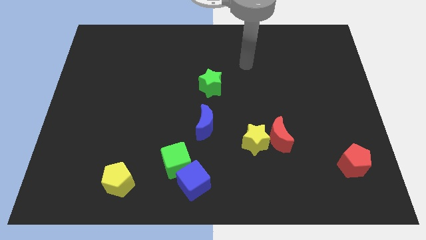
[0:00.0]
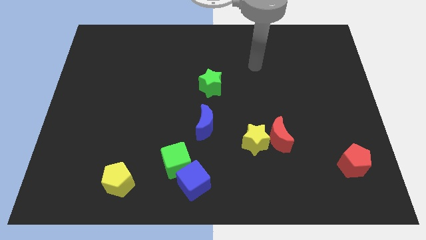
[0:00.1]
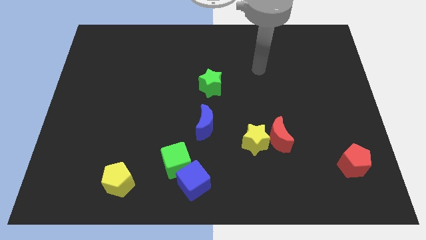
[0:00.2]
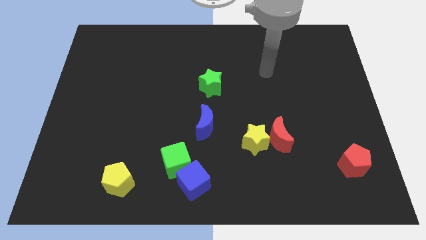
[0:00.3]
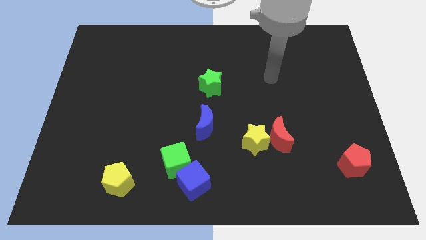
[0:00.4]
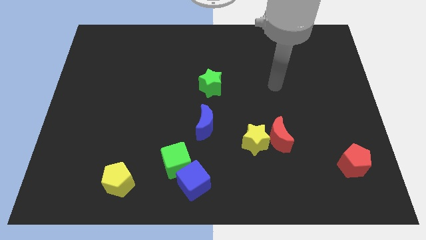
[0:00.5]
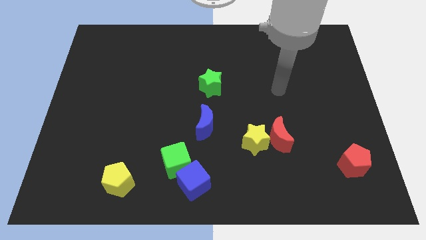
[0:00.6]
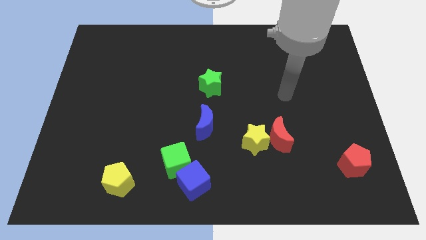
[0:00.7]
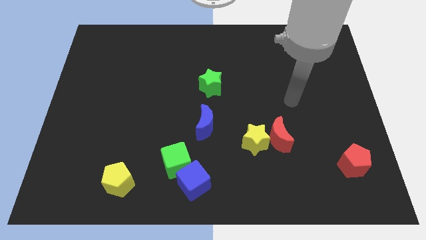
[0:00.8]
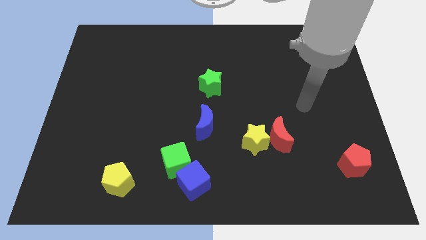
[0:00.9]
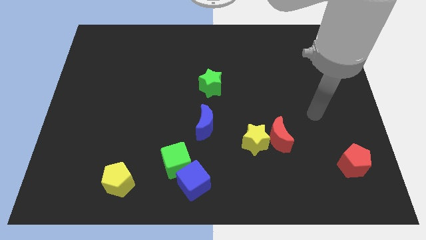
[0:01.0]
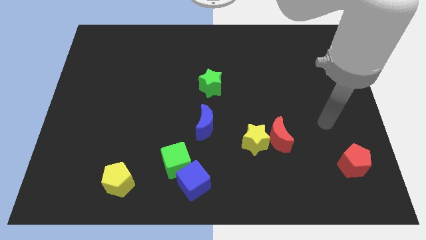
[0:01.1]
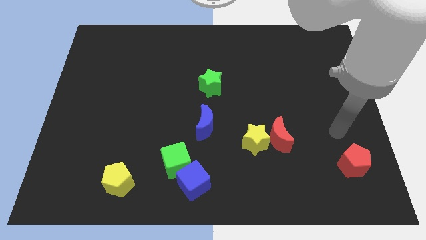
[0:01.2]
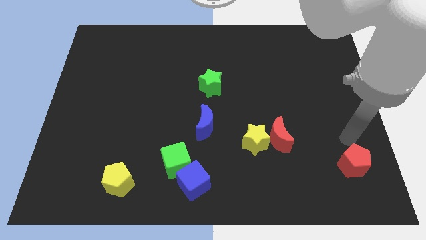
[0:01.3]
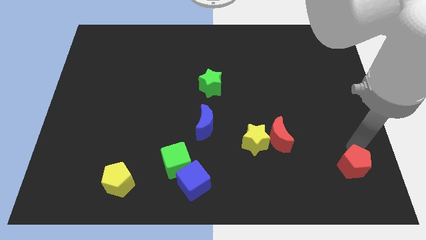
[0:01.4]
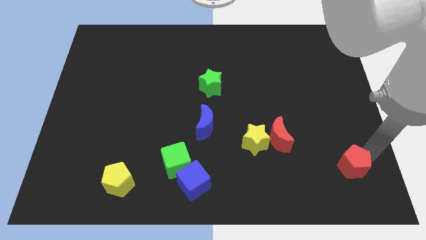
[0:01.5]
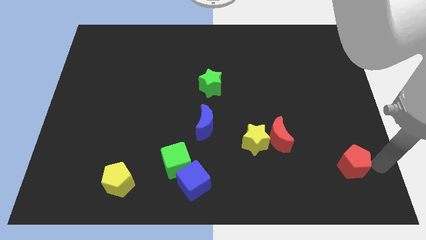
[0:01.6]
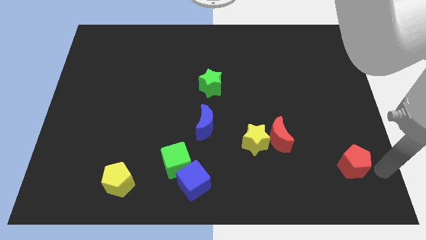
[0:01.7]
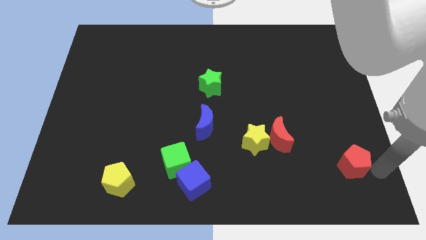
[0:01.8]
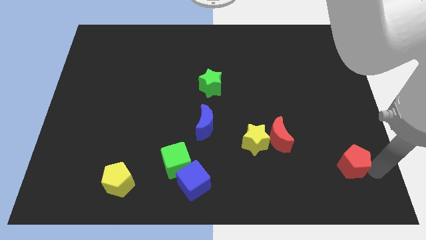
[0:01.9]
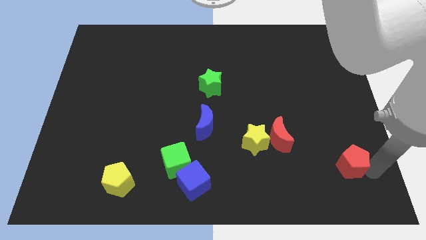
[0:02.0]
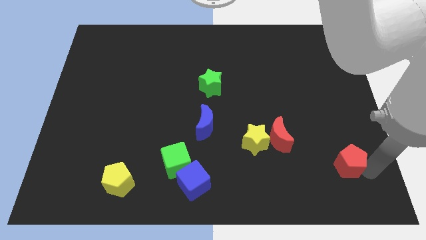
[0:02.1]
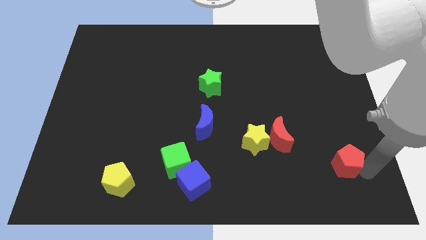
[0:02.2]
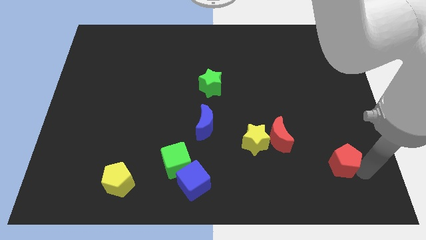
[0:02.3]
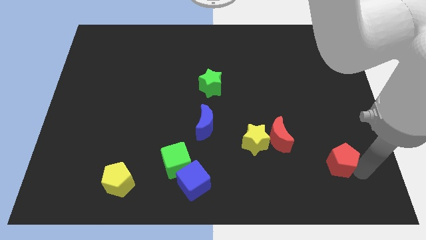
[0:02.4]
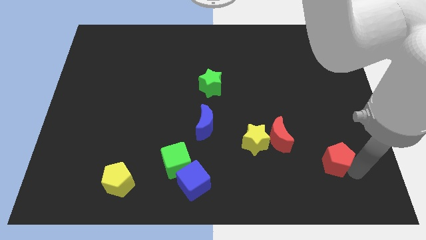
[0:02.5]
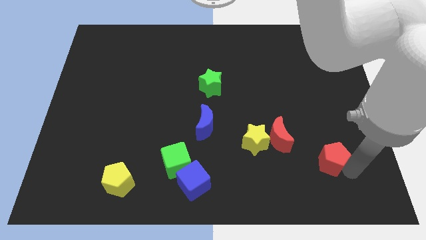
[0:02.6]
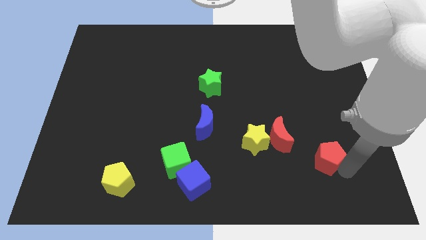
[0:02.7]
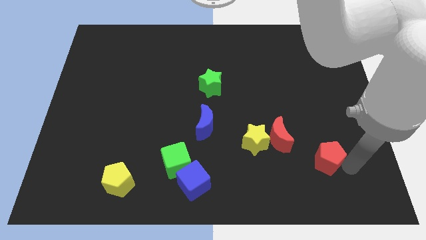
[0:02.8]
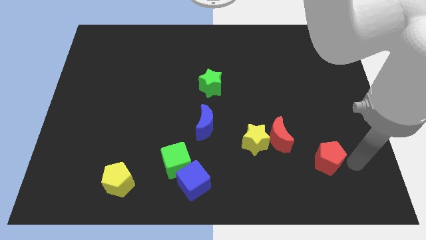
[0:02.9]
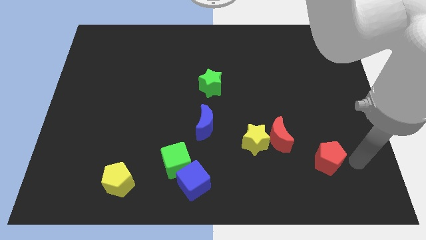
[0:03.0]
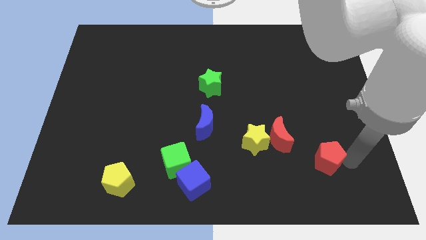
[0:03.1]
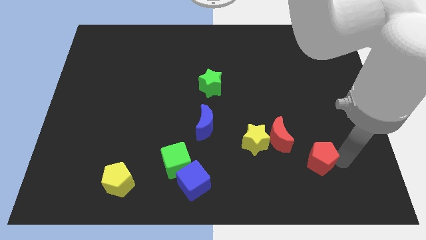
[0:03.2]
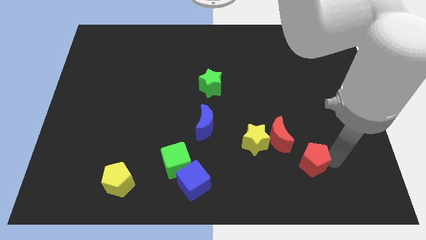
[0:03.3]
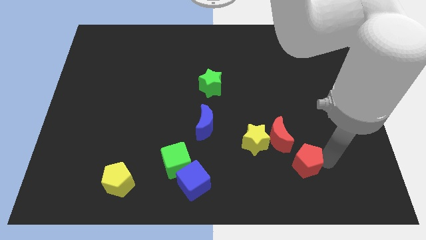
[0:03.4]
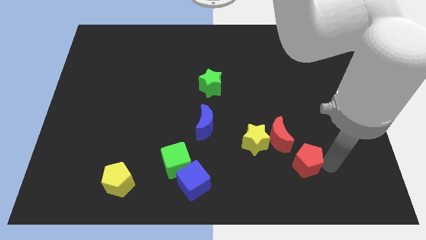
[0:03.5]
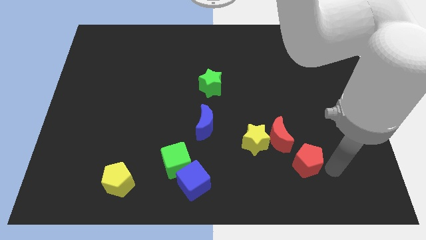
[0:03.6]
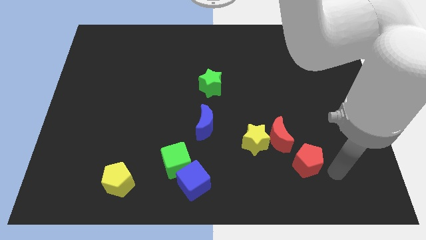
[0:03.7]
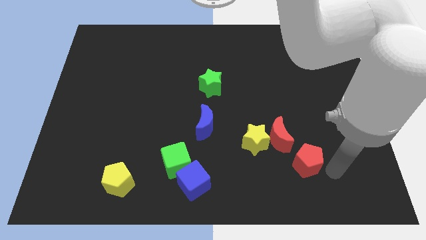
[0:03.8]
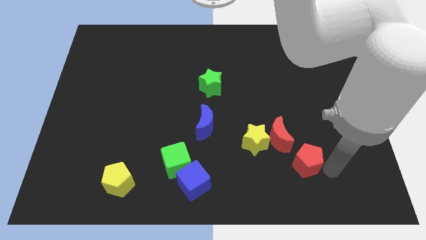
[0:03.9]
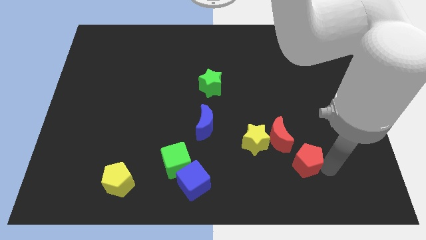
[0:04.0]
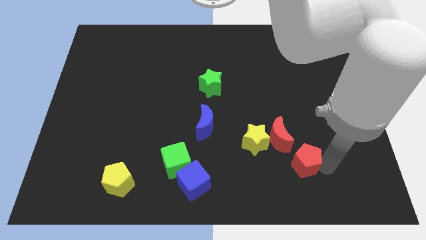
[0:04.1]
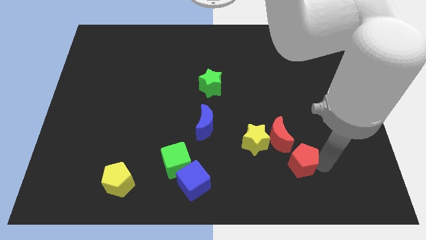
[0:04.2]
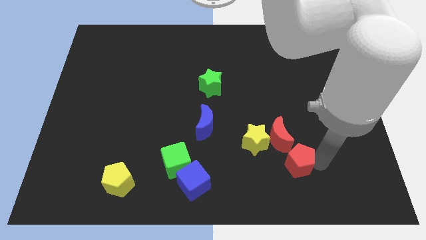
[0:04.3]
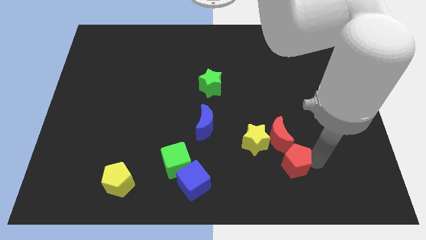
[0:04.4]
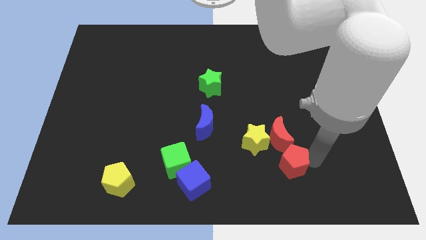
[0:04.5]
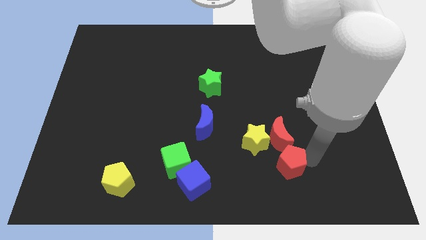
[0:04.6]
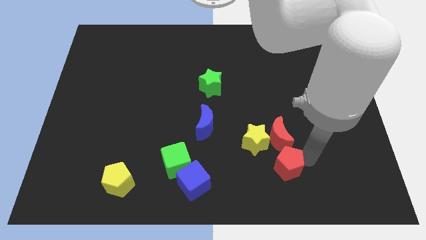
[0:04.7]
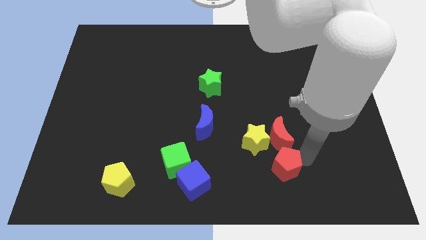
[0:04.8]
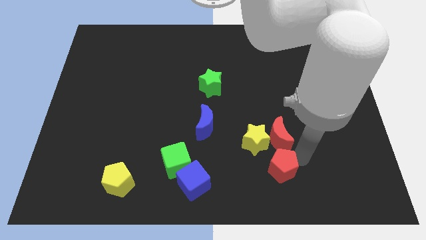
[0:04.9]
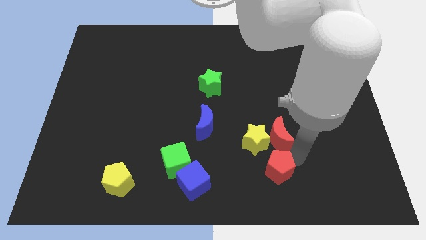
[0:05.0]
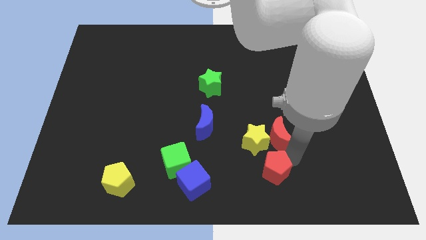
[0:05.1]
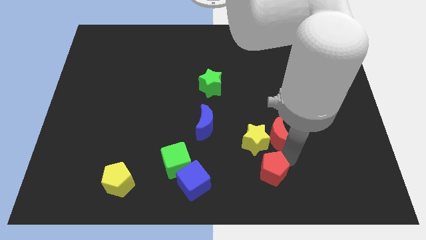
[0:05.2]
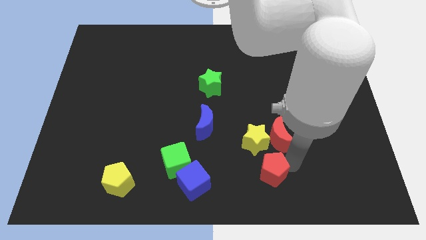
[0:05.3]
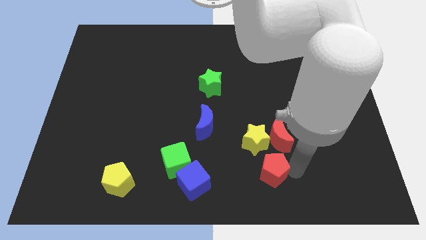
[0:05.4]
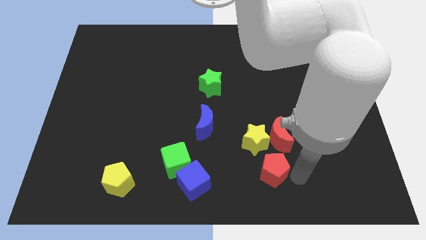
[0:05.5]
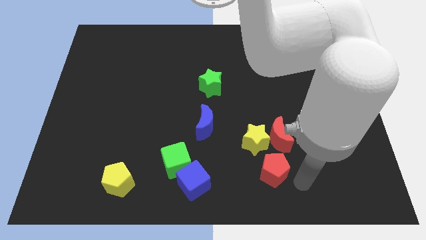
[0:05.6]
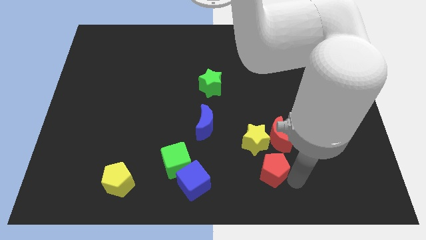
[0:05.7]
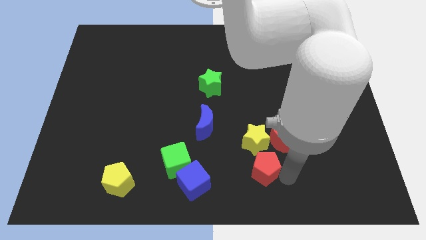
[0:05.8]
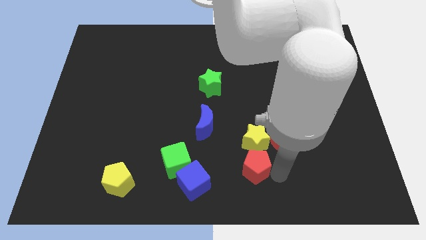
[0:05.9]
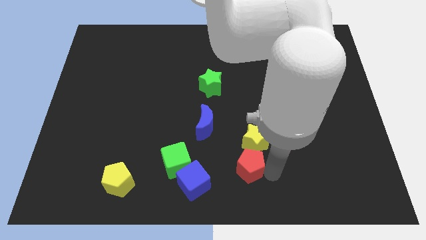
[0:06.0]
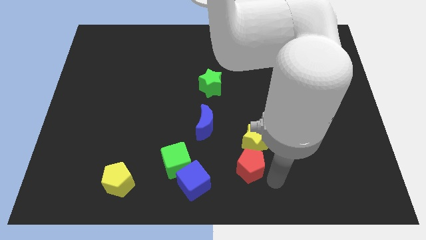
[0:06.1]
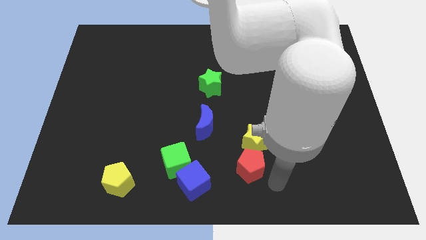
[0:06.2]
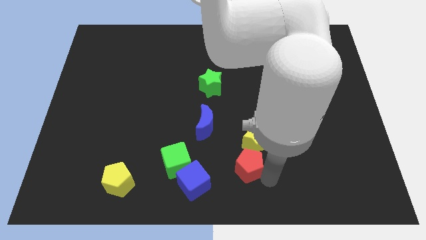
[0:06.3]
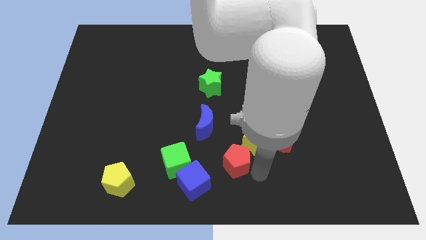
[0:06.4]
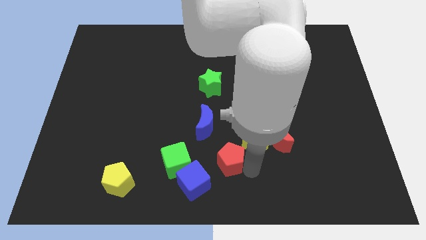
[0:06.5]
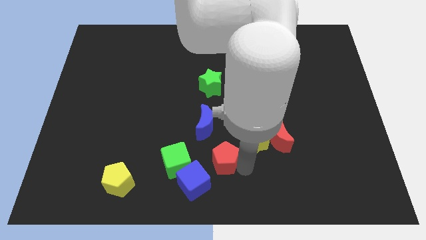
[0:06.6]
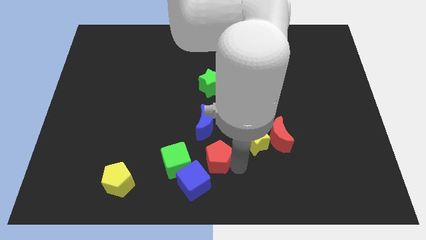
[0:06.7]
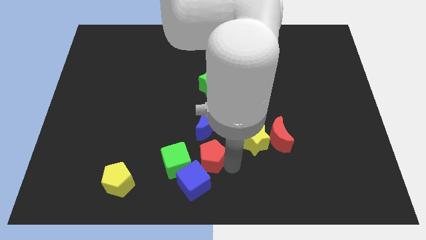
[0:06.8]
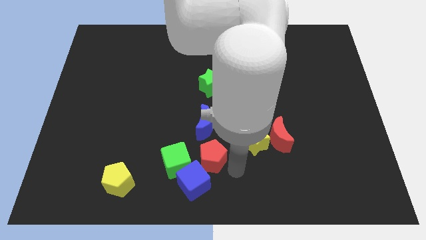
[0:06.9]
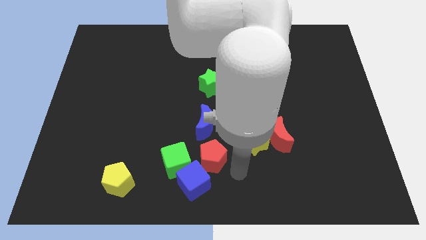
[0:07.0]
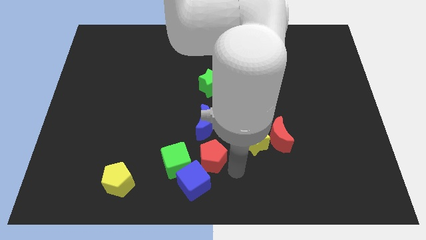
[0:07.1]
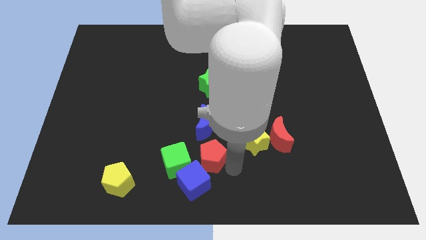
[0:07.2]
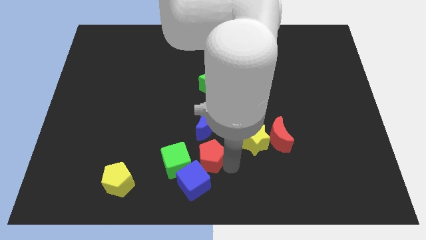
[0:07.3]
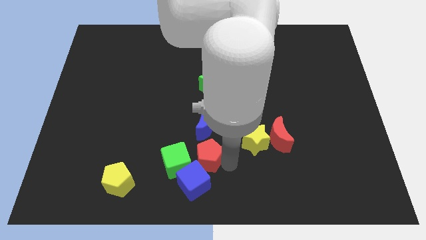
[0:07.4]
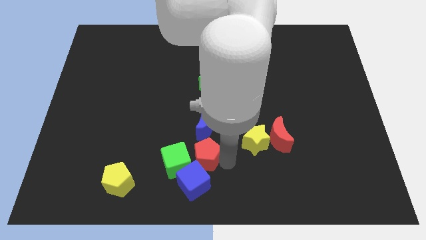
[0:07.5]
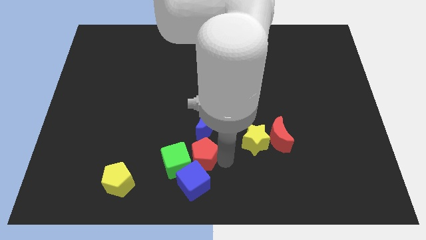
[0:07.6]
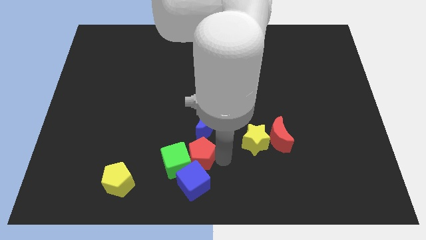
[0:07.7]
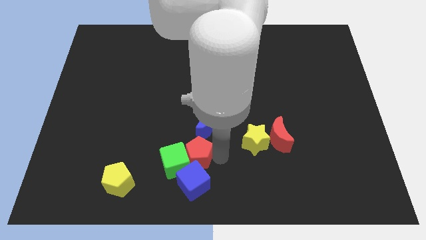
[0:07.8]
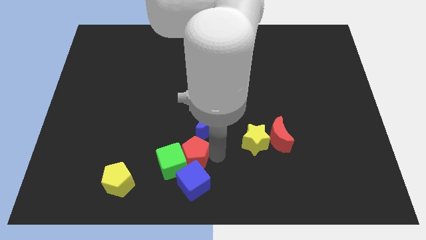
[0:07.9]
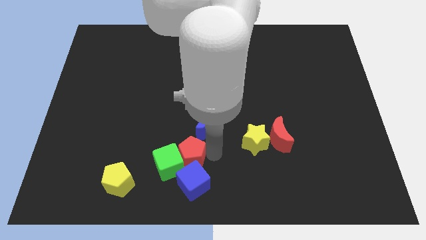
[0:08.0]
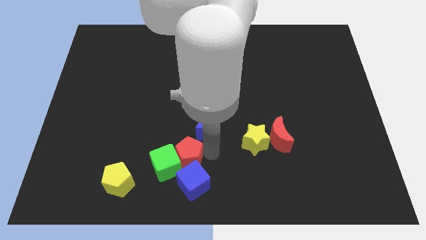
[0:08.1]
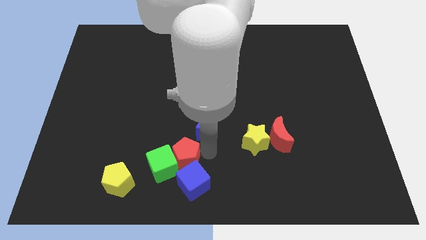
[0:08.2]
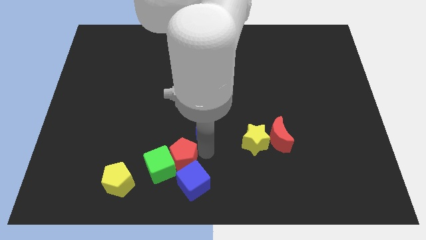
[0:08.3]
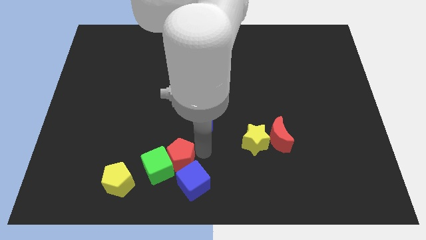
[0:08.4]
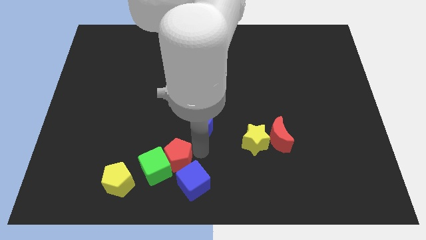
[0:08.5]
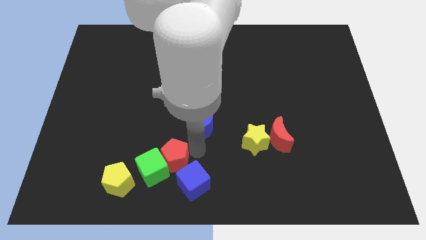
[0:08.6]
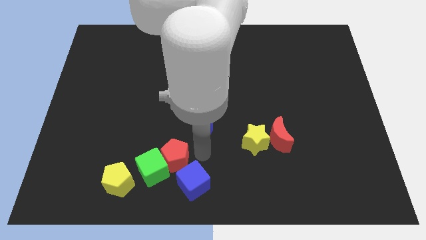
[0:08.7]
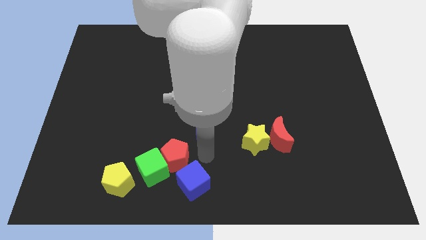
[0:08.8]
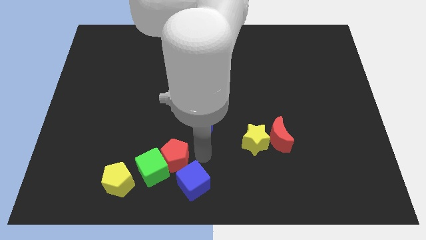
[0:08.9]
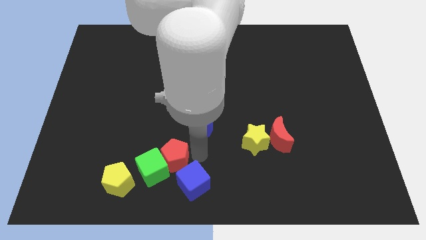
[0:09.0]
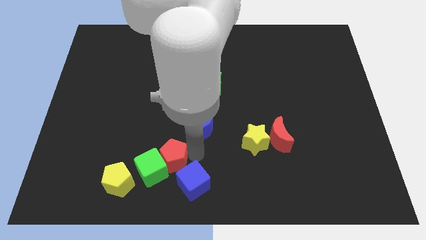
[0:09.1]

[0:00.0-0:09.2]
push the red pentagon diagonally up and to the right of the yellow pentagon
